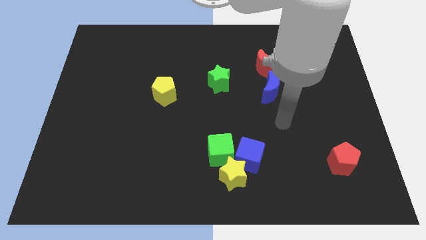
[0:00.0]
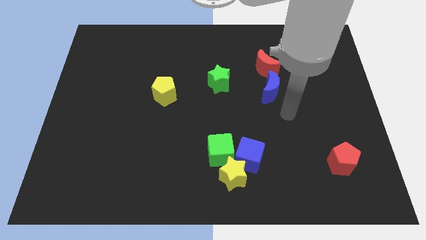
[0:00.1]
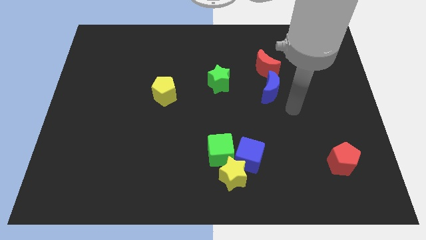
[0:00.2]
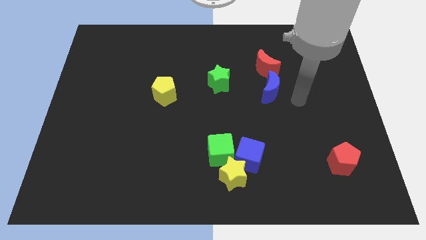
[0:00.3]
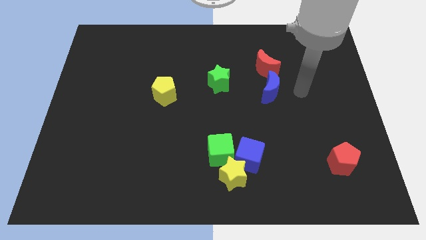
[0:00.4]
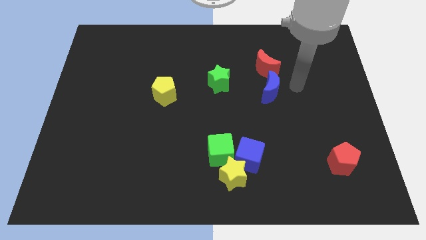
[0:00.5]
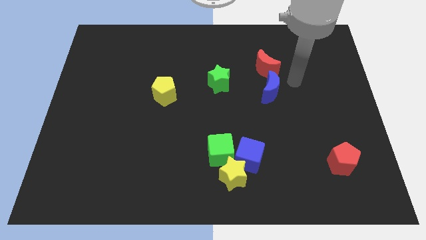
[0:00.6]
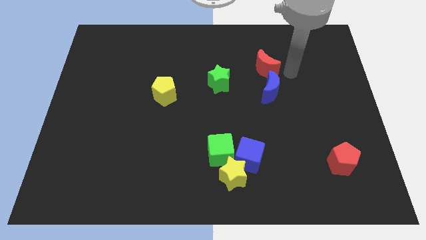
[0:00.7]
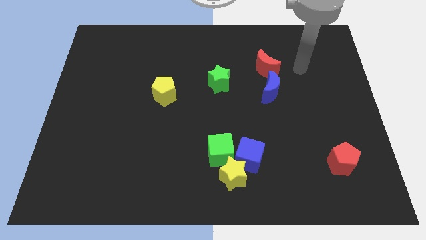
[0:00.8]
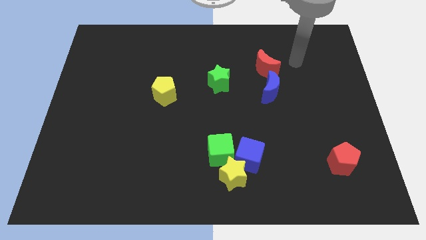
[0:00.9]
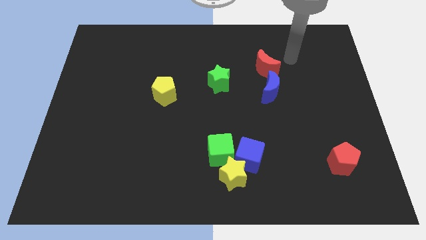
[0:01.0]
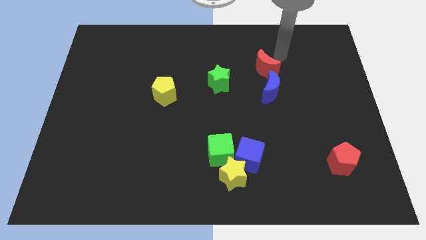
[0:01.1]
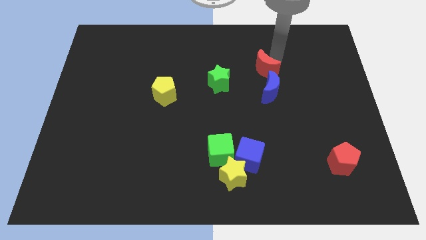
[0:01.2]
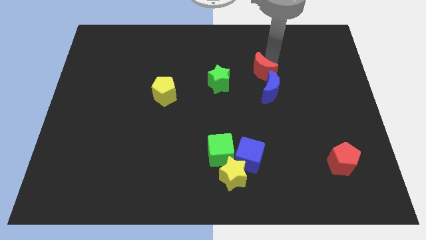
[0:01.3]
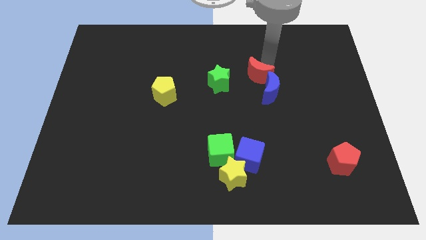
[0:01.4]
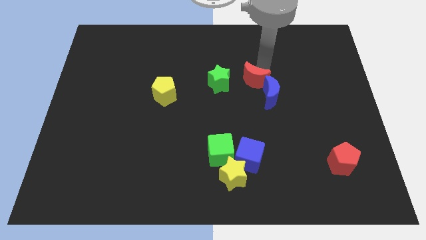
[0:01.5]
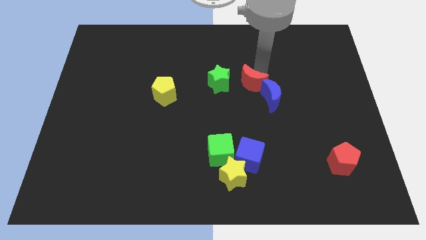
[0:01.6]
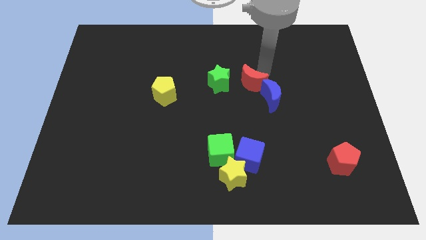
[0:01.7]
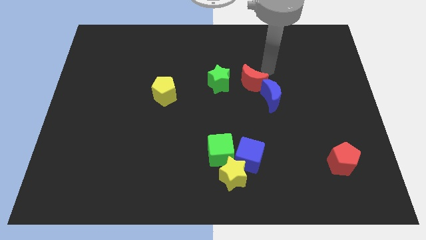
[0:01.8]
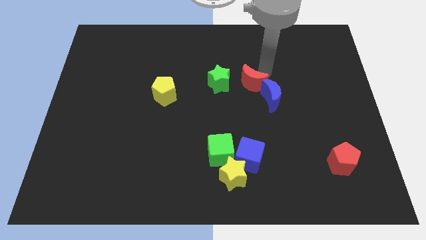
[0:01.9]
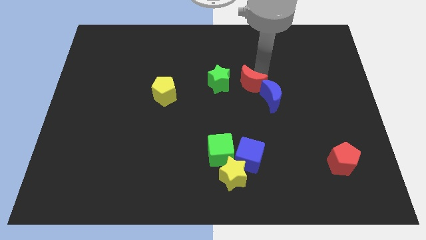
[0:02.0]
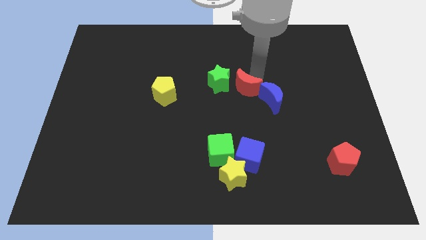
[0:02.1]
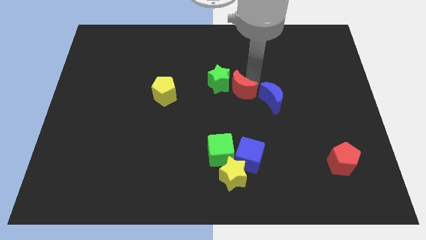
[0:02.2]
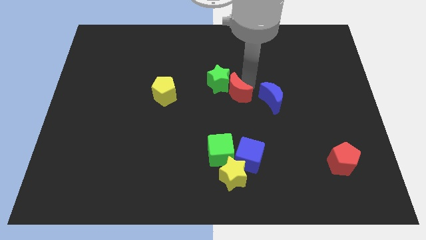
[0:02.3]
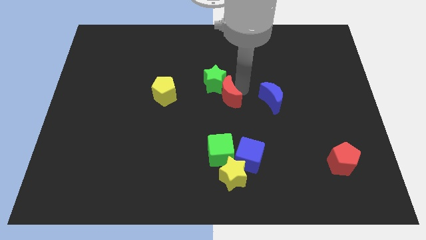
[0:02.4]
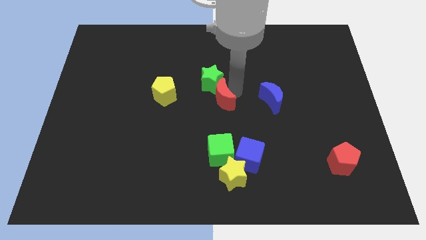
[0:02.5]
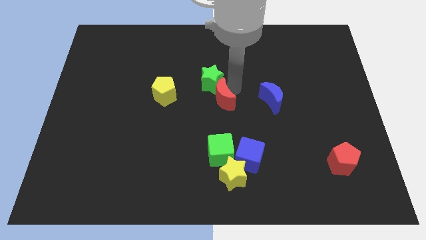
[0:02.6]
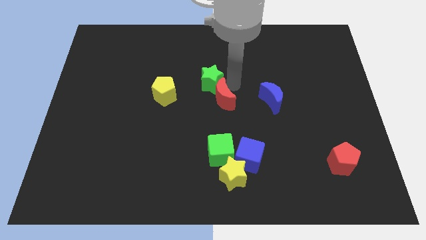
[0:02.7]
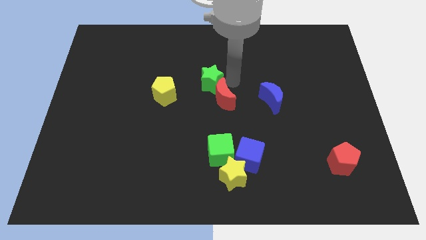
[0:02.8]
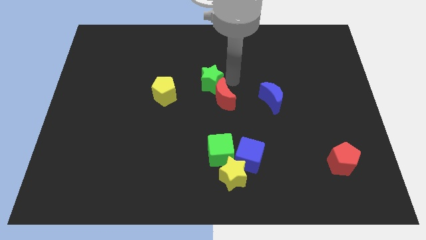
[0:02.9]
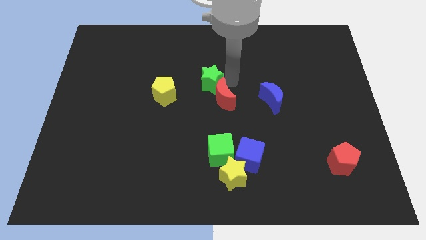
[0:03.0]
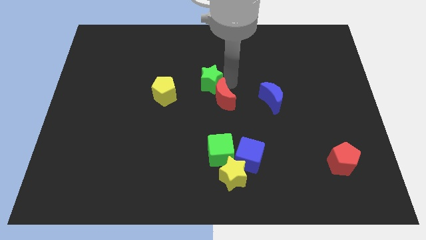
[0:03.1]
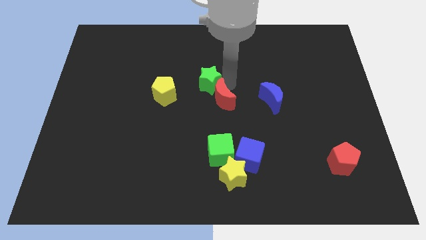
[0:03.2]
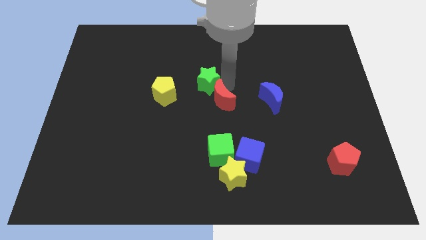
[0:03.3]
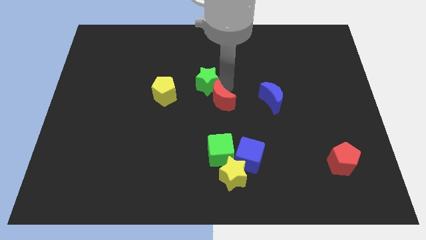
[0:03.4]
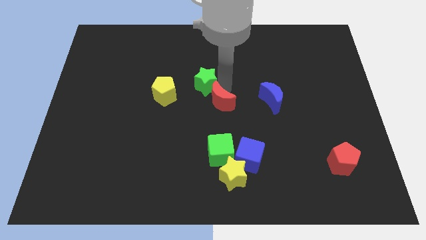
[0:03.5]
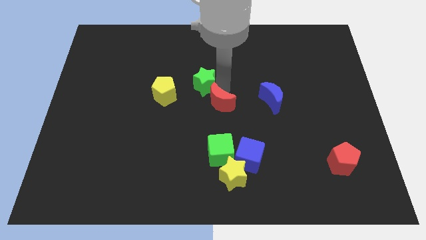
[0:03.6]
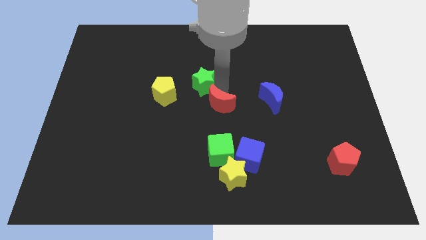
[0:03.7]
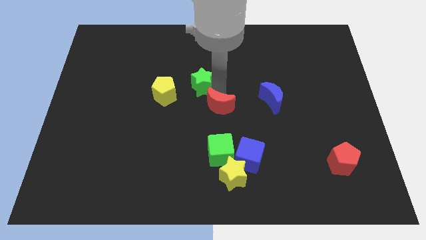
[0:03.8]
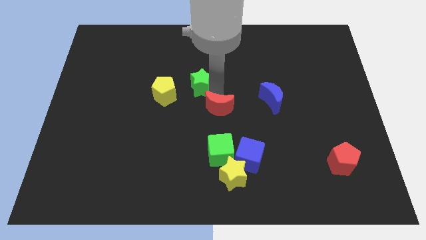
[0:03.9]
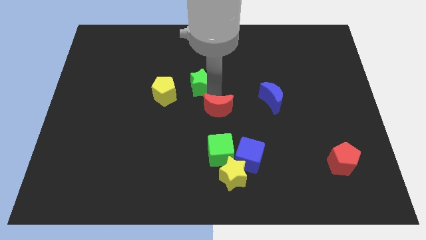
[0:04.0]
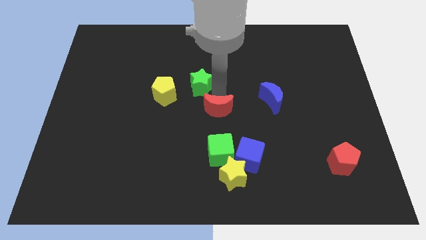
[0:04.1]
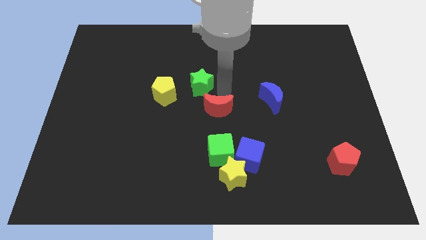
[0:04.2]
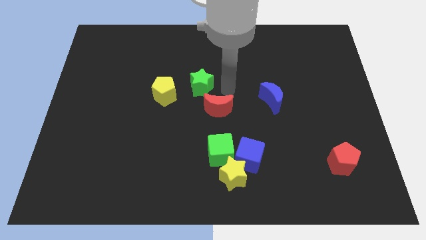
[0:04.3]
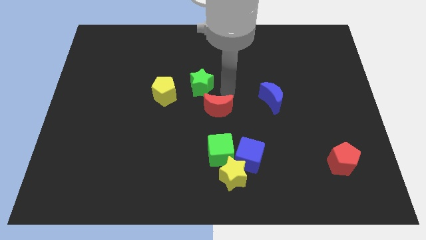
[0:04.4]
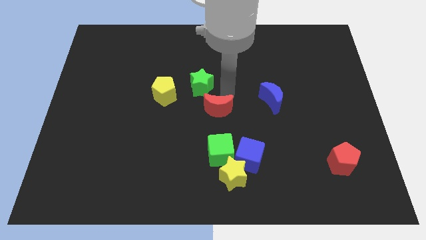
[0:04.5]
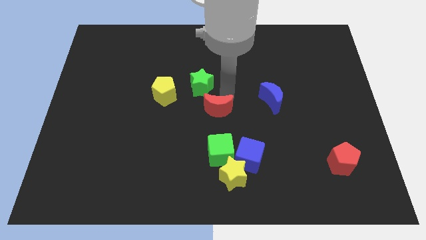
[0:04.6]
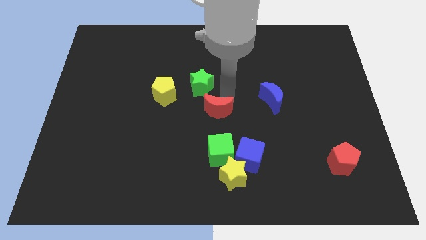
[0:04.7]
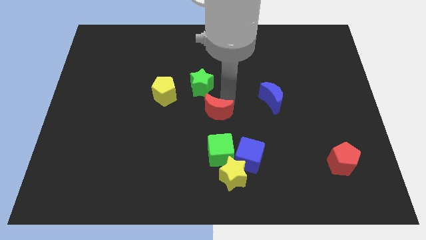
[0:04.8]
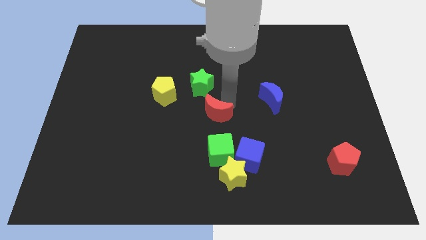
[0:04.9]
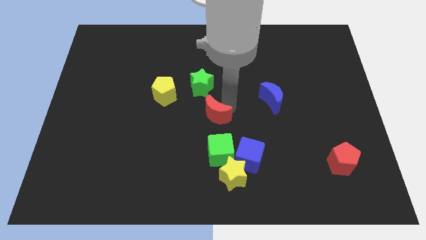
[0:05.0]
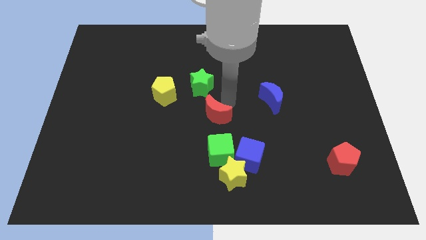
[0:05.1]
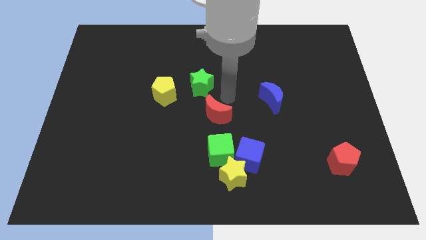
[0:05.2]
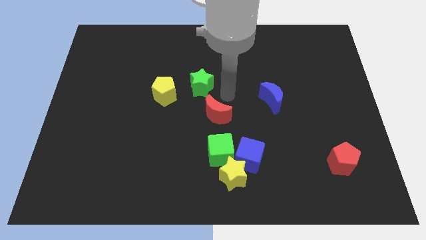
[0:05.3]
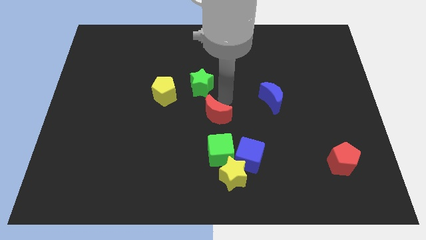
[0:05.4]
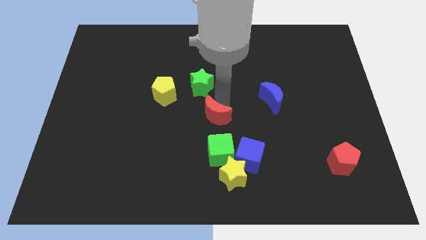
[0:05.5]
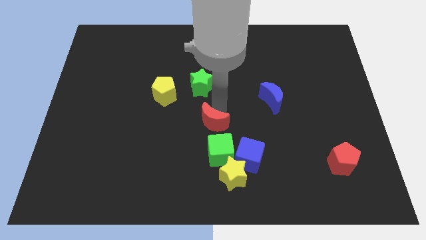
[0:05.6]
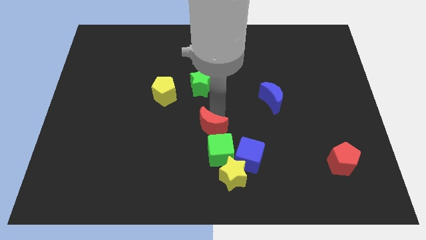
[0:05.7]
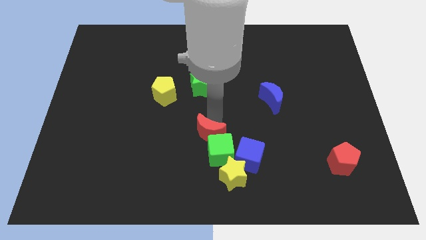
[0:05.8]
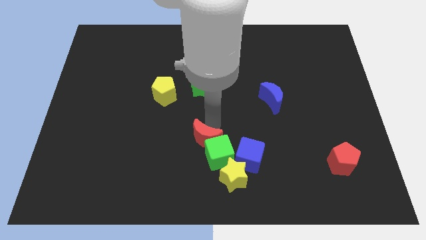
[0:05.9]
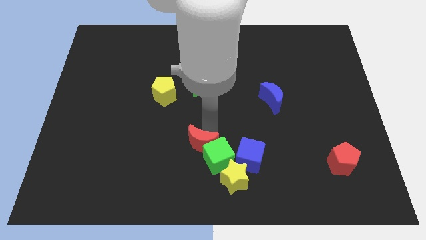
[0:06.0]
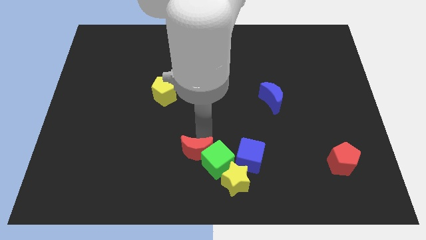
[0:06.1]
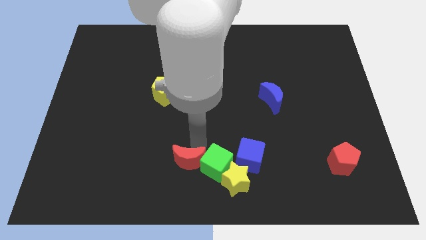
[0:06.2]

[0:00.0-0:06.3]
put the red moon diagonally down and to the left of the green cube

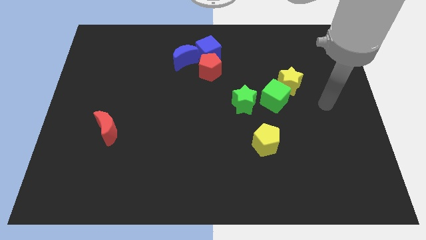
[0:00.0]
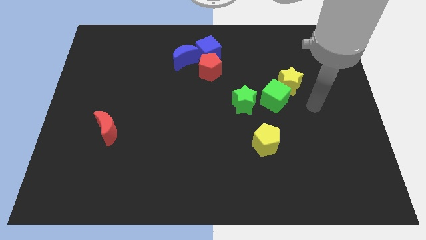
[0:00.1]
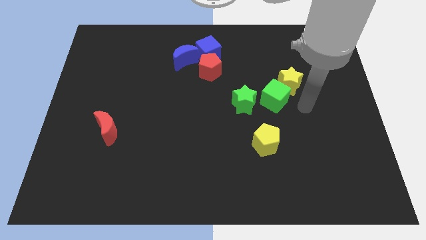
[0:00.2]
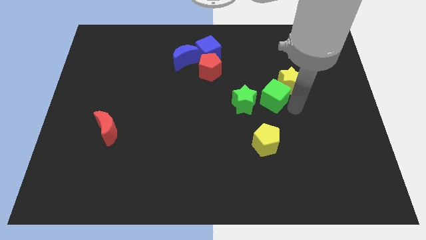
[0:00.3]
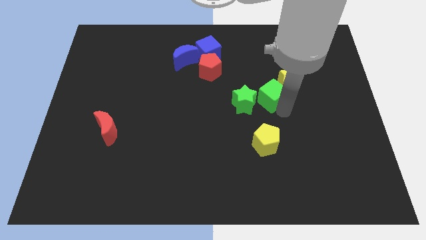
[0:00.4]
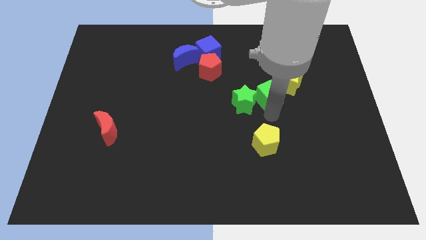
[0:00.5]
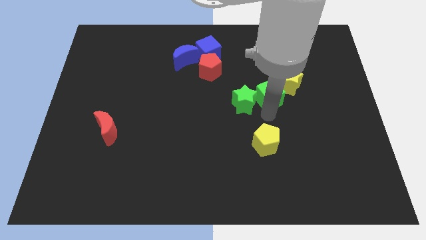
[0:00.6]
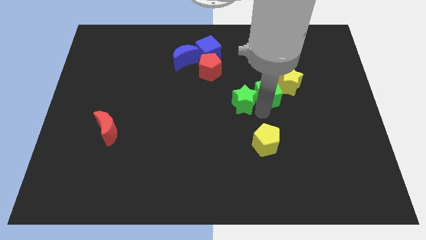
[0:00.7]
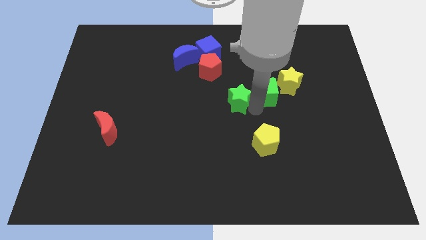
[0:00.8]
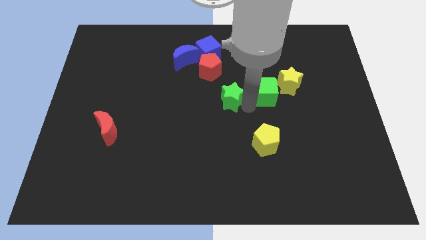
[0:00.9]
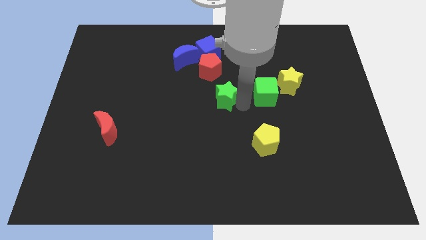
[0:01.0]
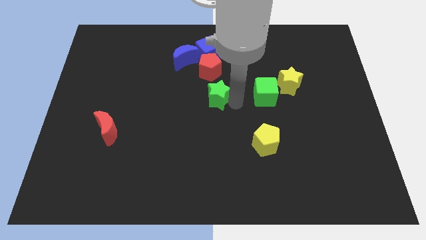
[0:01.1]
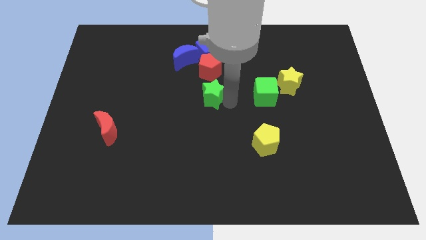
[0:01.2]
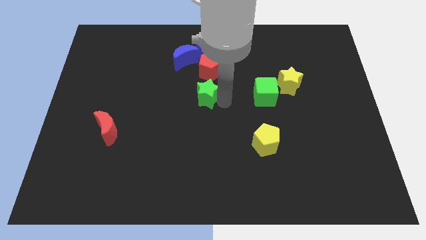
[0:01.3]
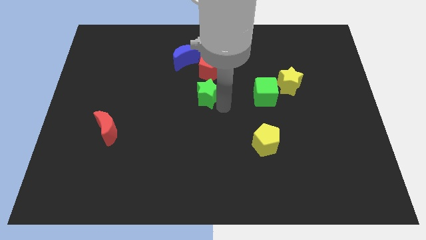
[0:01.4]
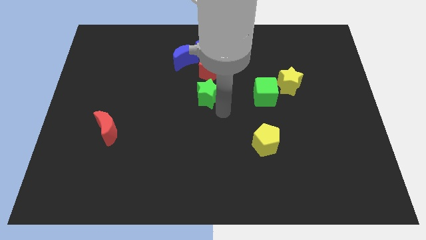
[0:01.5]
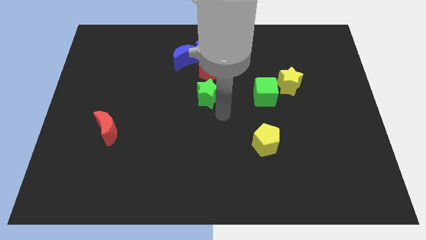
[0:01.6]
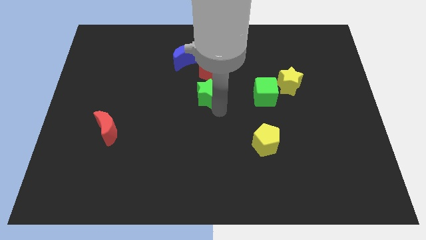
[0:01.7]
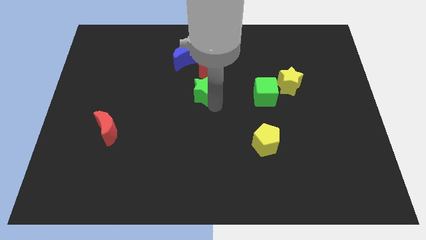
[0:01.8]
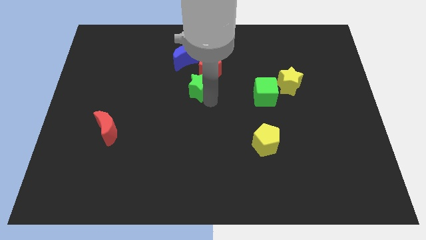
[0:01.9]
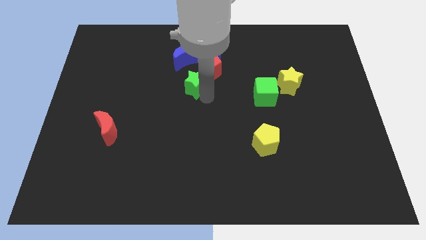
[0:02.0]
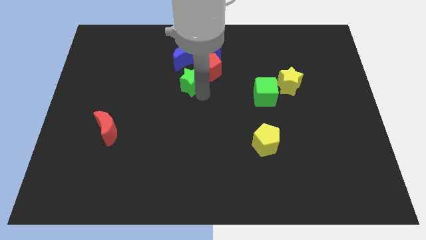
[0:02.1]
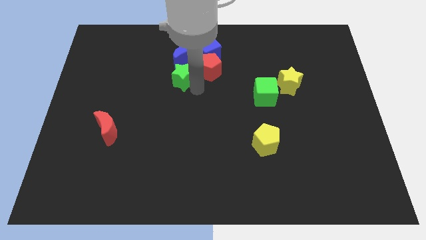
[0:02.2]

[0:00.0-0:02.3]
slide the green star just left of the red pentagon
